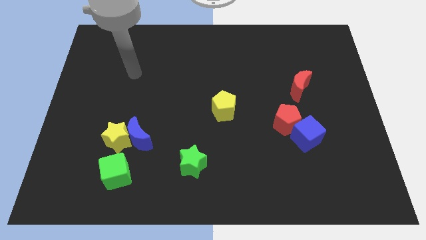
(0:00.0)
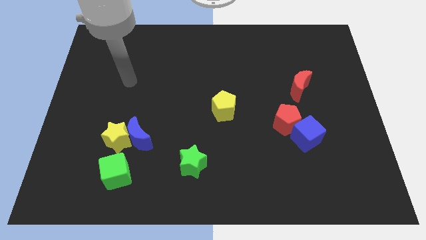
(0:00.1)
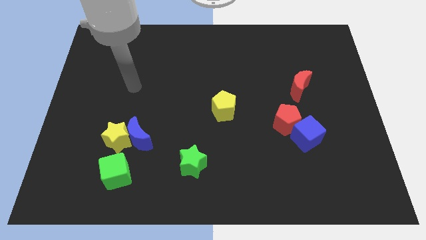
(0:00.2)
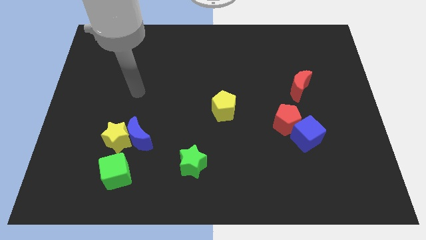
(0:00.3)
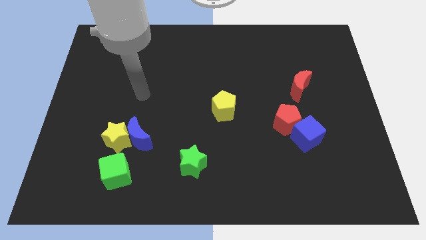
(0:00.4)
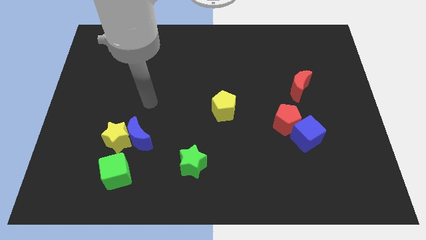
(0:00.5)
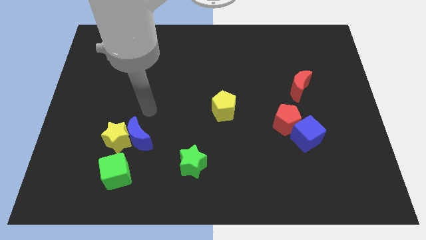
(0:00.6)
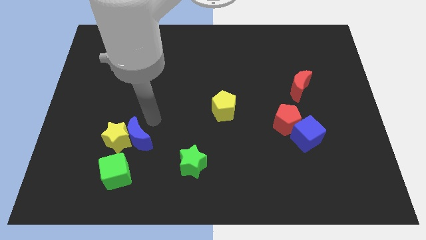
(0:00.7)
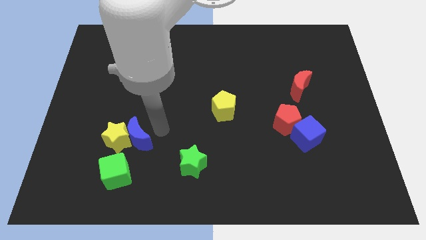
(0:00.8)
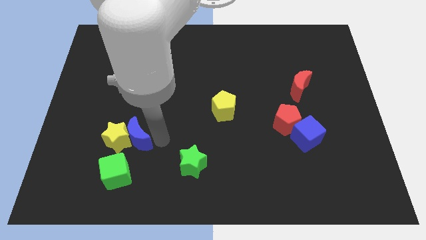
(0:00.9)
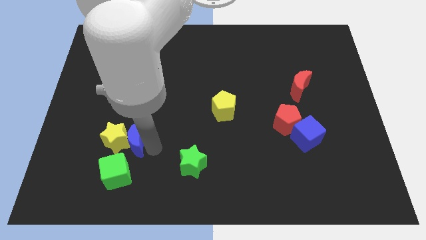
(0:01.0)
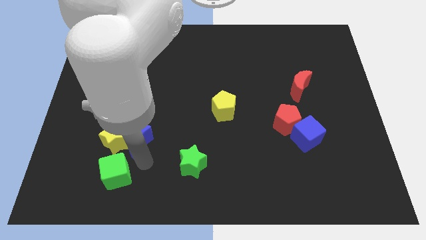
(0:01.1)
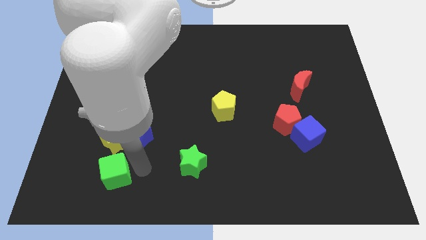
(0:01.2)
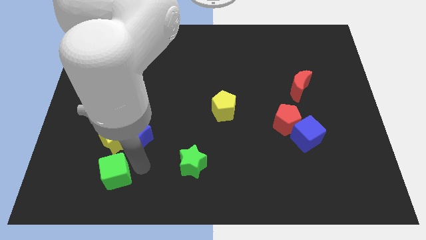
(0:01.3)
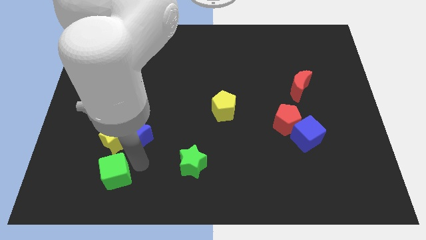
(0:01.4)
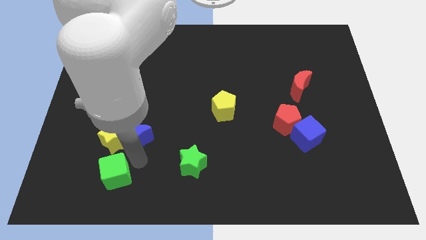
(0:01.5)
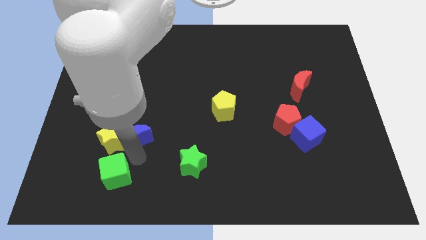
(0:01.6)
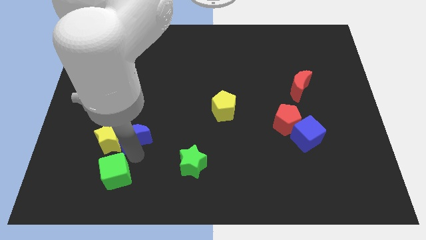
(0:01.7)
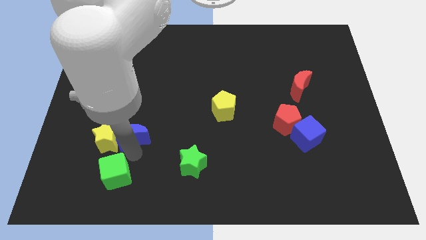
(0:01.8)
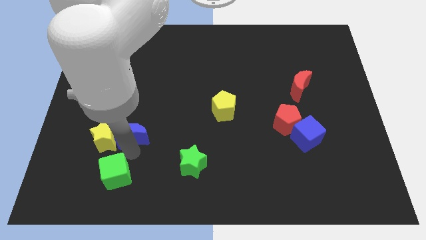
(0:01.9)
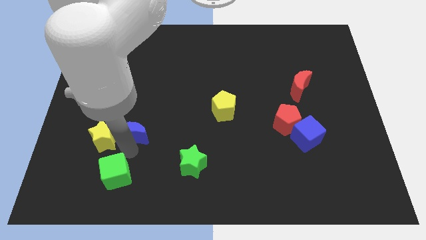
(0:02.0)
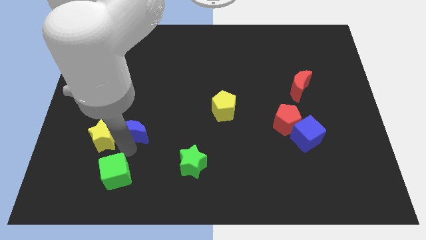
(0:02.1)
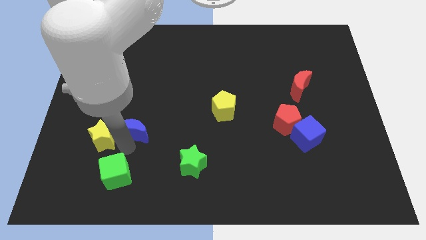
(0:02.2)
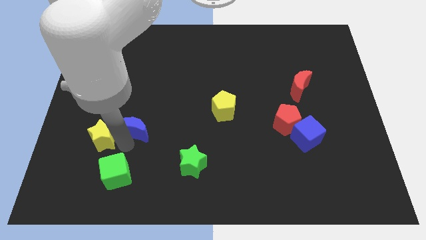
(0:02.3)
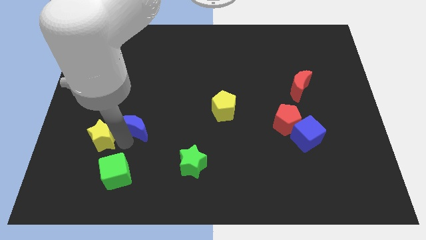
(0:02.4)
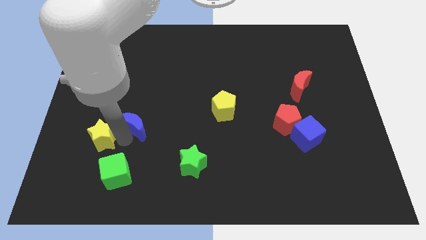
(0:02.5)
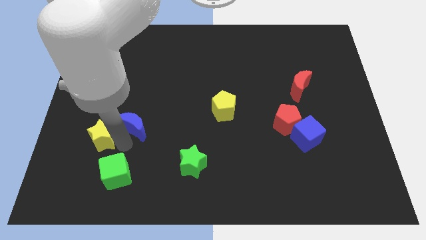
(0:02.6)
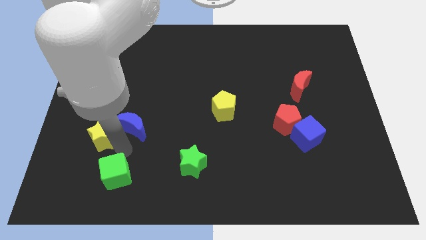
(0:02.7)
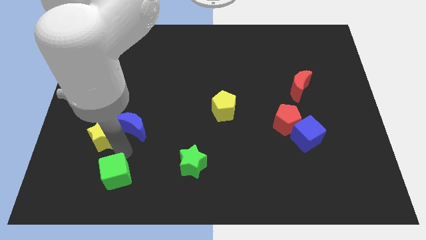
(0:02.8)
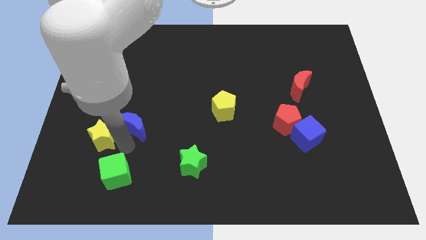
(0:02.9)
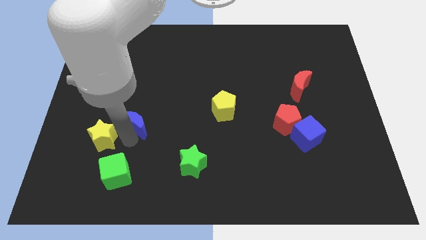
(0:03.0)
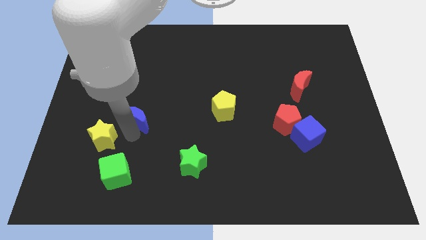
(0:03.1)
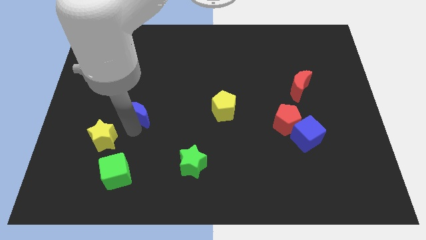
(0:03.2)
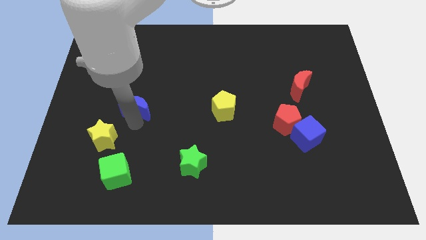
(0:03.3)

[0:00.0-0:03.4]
slightly slide the blue moon up

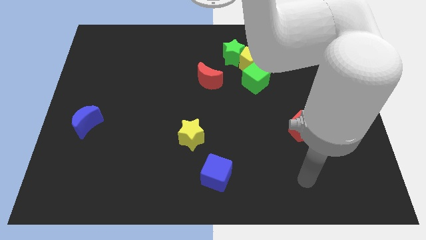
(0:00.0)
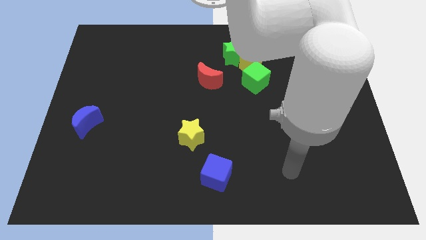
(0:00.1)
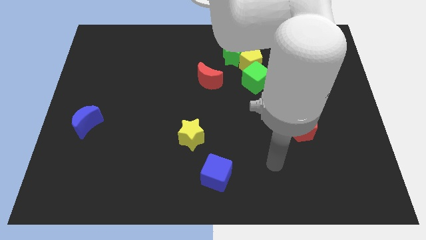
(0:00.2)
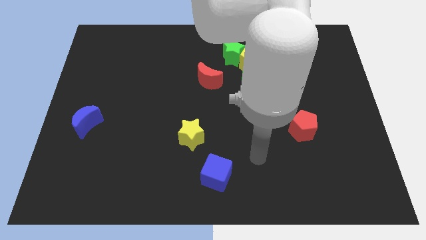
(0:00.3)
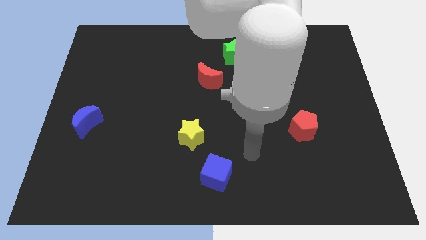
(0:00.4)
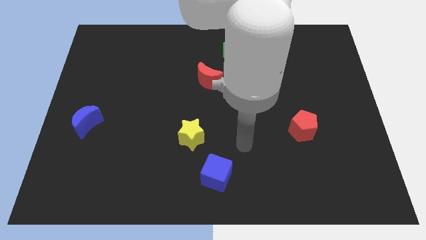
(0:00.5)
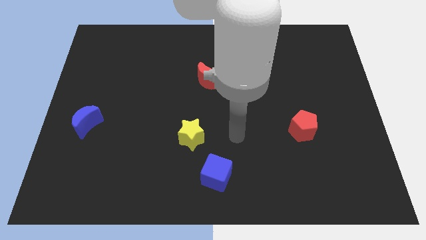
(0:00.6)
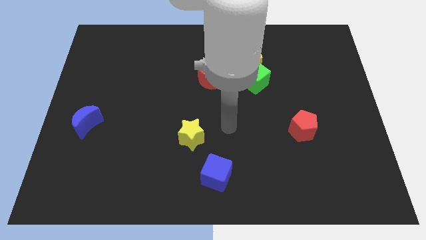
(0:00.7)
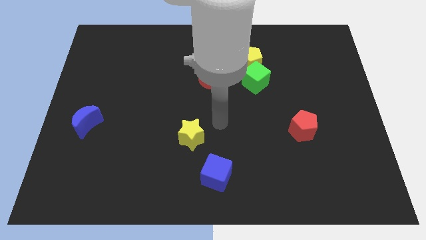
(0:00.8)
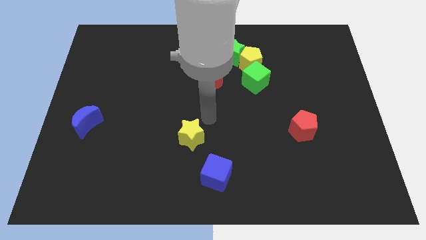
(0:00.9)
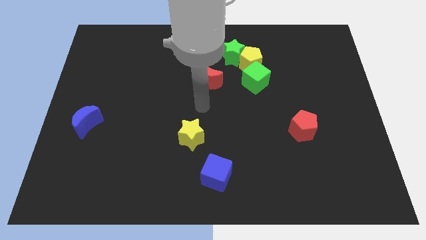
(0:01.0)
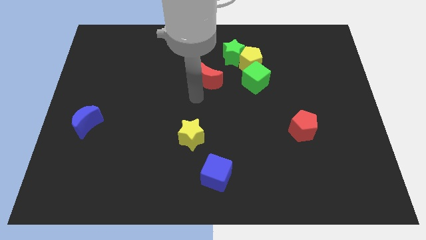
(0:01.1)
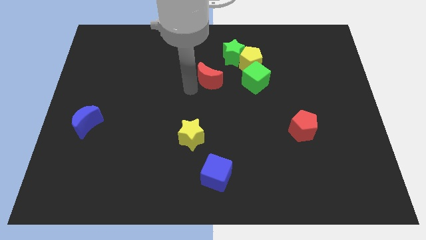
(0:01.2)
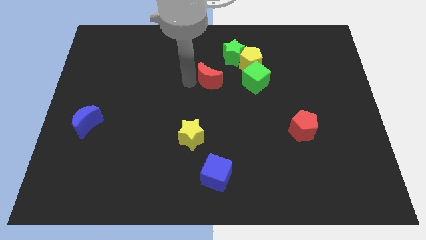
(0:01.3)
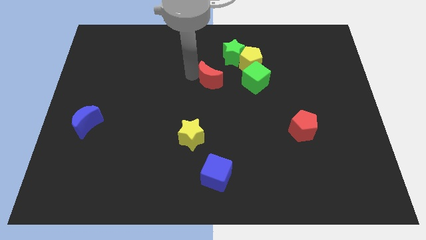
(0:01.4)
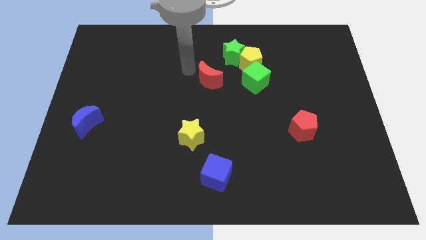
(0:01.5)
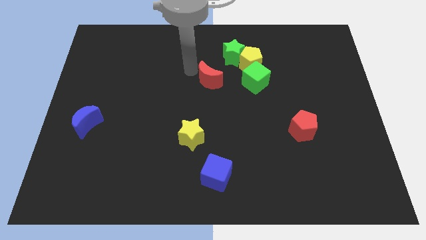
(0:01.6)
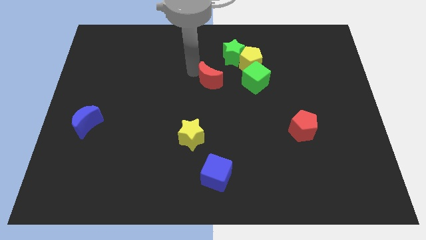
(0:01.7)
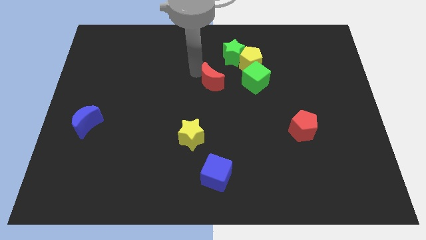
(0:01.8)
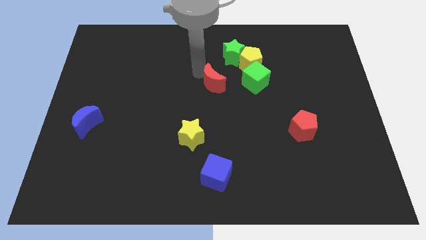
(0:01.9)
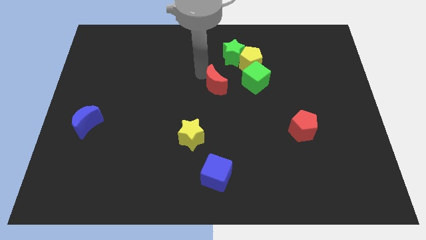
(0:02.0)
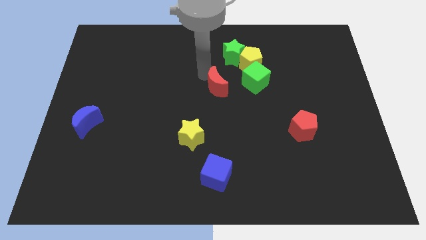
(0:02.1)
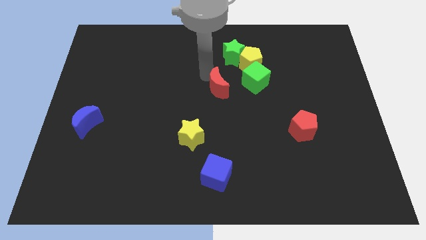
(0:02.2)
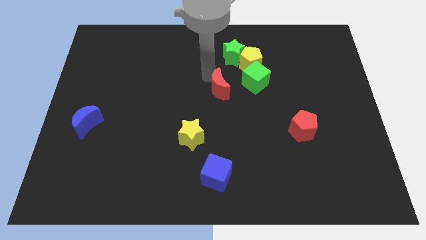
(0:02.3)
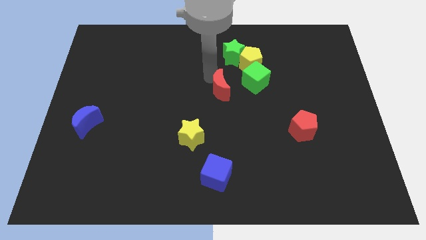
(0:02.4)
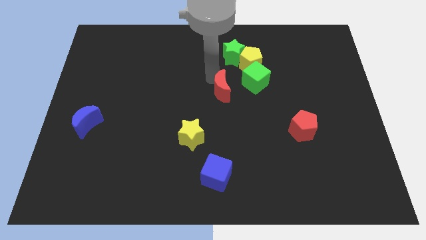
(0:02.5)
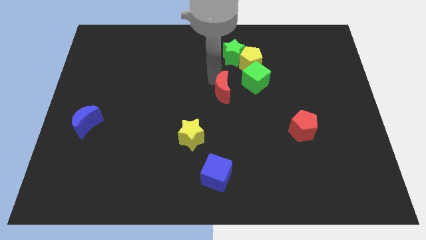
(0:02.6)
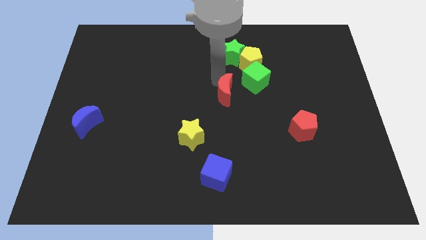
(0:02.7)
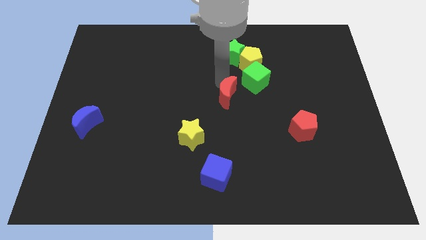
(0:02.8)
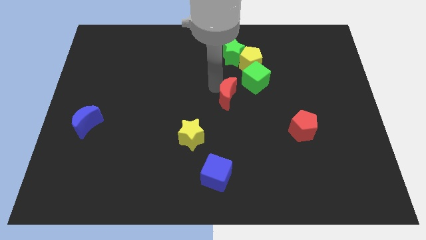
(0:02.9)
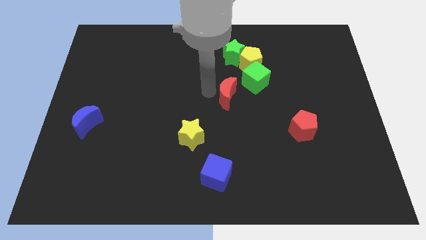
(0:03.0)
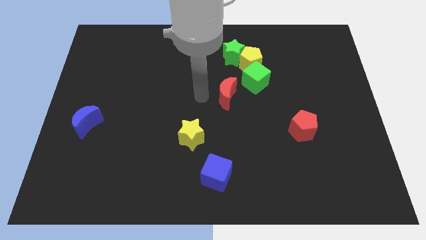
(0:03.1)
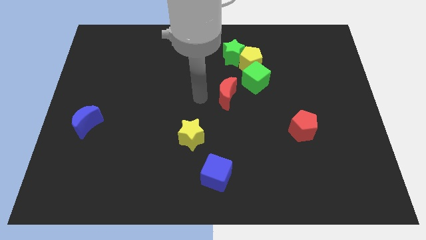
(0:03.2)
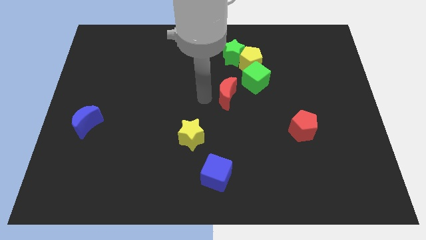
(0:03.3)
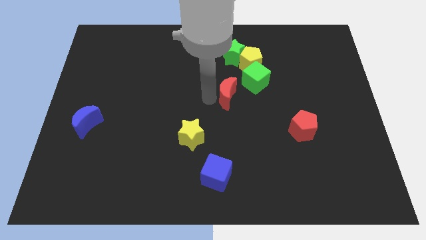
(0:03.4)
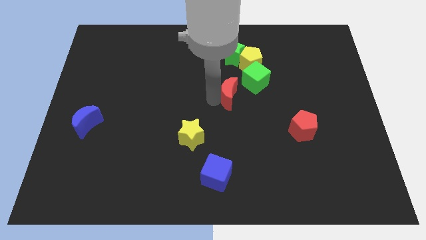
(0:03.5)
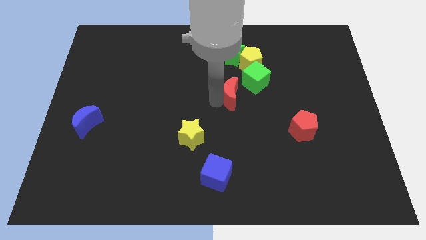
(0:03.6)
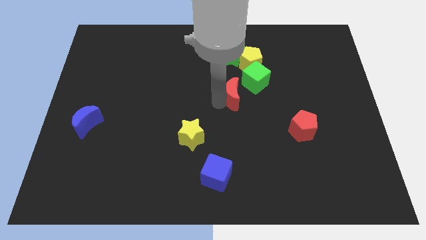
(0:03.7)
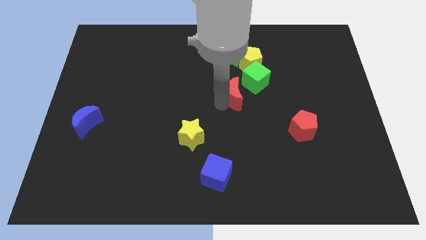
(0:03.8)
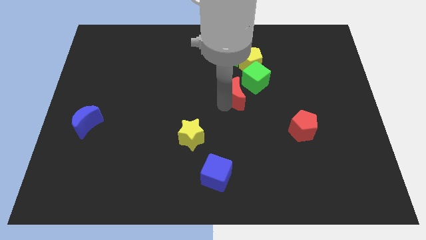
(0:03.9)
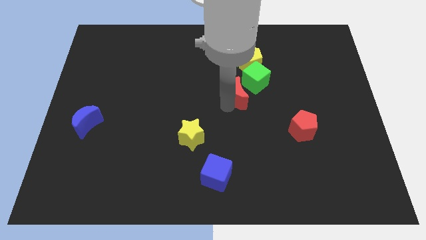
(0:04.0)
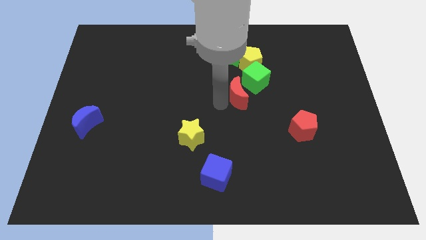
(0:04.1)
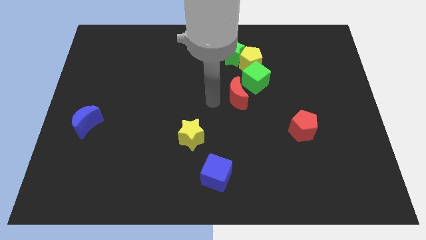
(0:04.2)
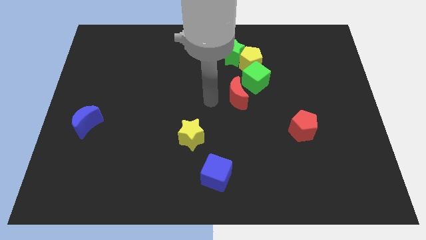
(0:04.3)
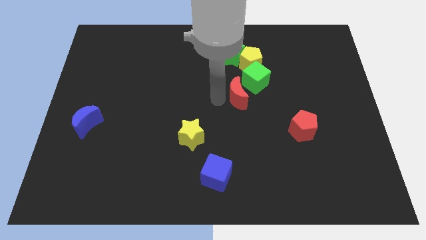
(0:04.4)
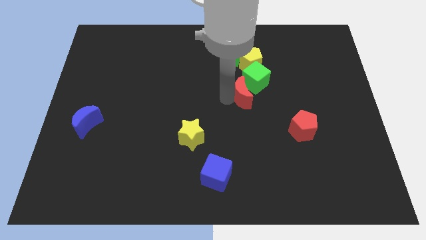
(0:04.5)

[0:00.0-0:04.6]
move the red moon to the right somewhat

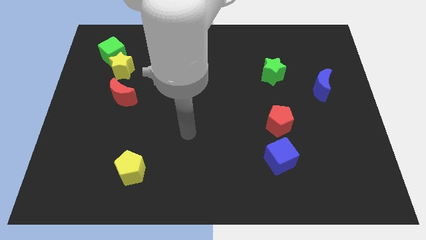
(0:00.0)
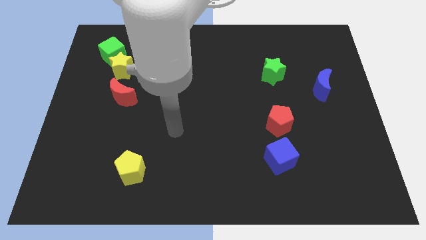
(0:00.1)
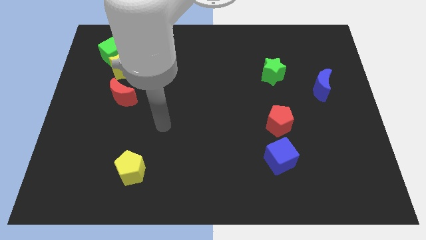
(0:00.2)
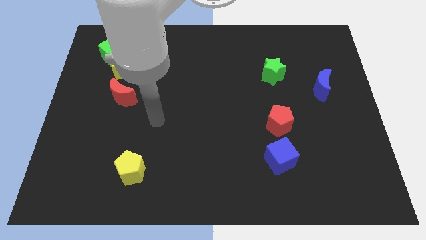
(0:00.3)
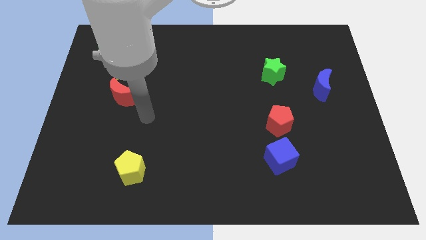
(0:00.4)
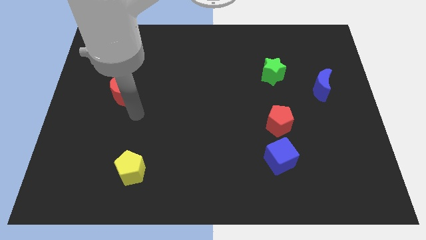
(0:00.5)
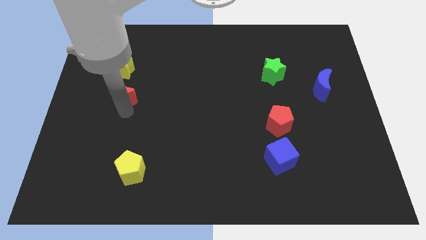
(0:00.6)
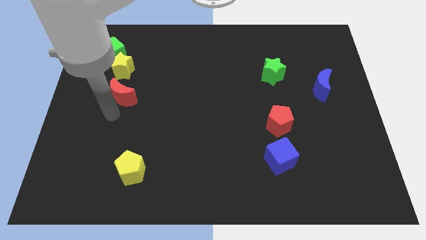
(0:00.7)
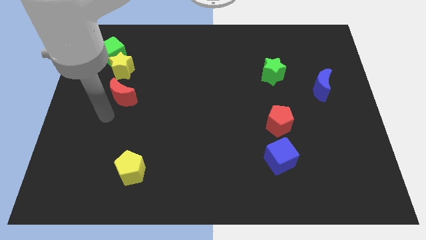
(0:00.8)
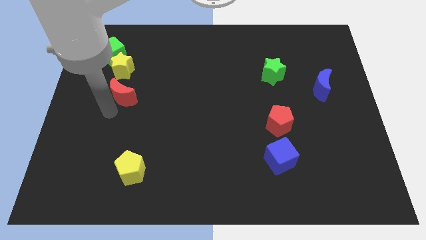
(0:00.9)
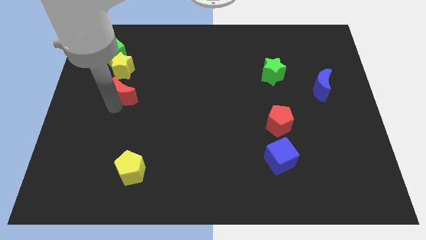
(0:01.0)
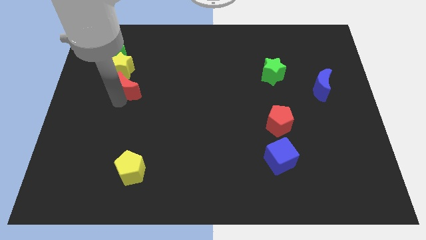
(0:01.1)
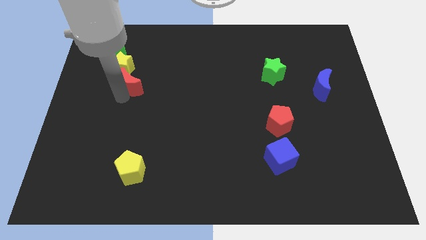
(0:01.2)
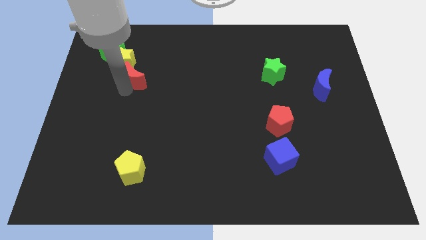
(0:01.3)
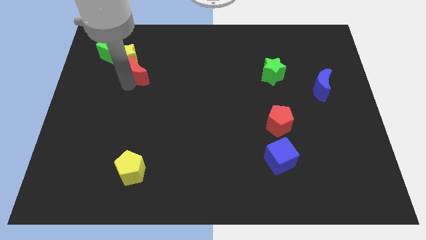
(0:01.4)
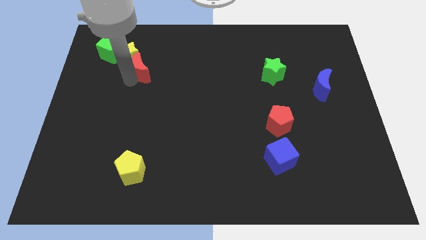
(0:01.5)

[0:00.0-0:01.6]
slide the red moon a little up and right
